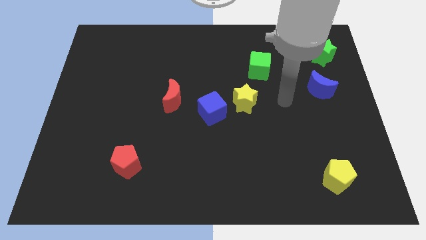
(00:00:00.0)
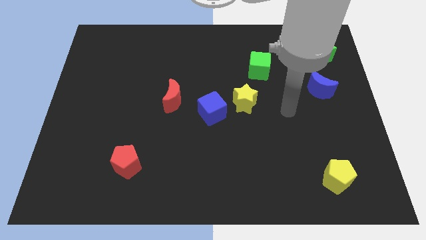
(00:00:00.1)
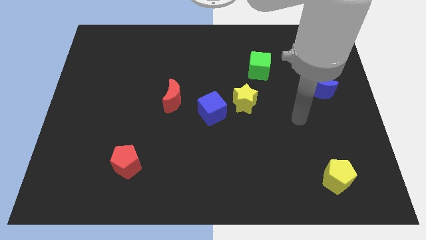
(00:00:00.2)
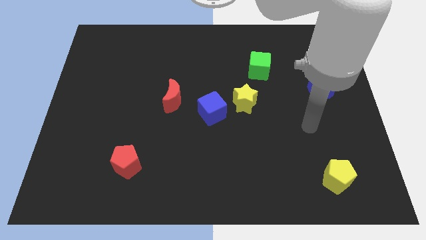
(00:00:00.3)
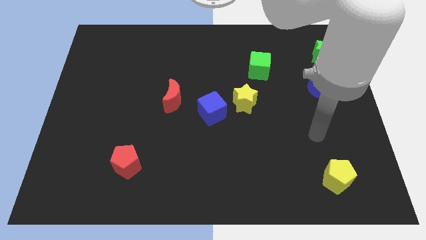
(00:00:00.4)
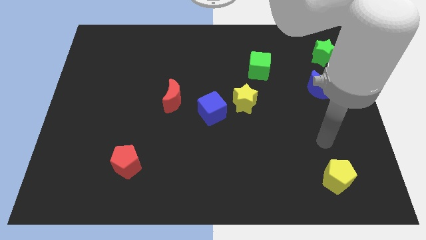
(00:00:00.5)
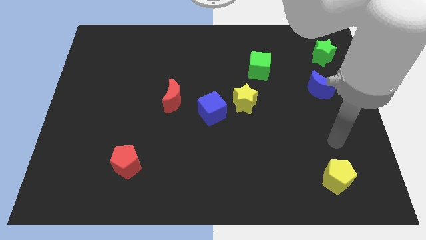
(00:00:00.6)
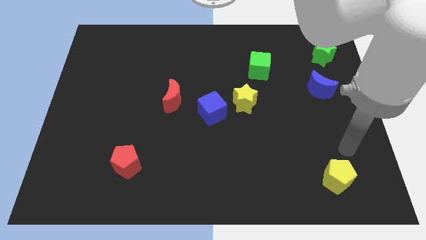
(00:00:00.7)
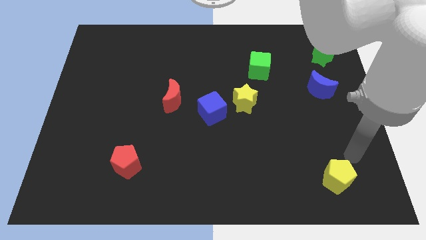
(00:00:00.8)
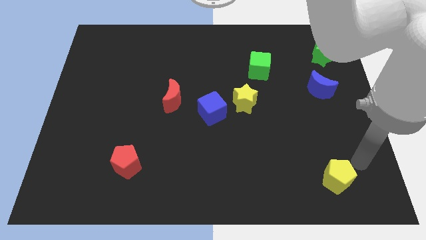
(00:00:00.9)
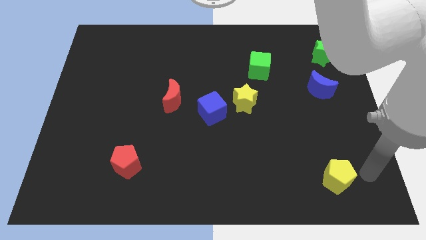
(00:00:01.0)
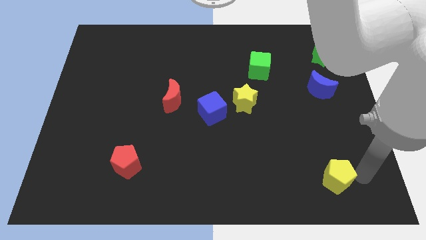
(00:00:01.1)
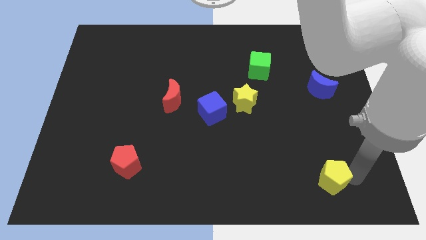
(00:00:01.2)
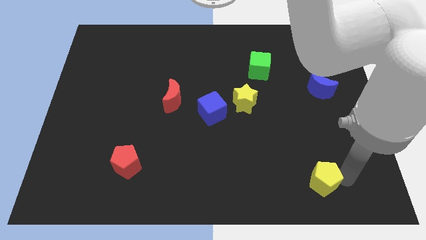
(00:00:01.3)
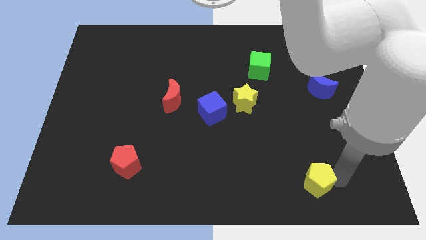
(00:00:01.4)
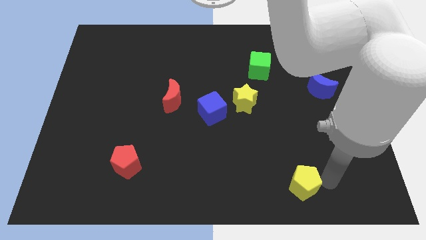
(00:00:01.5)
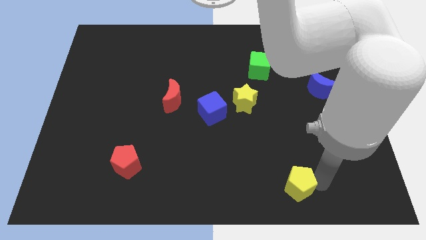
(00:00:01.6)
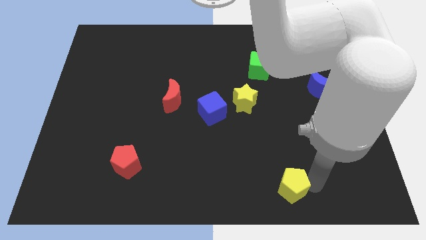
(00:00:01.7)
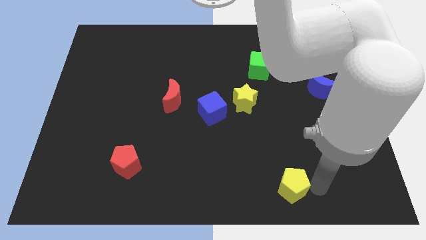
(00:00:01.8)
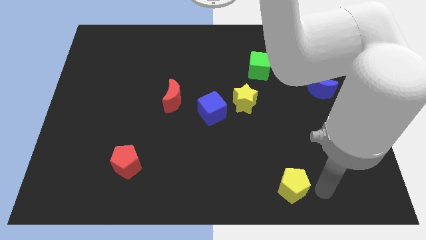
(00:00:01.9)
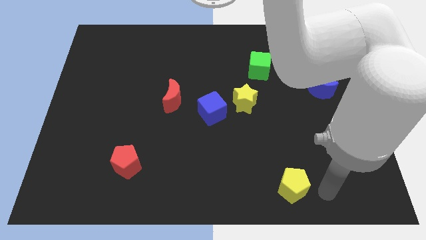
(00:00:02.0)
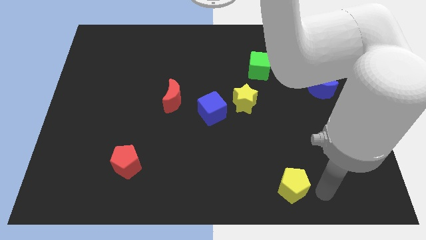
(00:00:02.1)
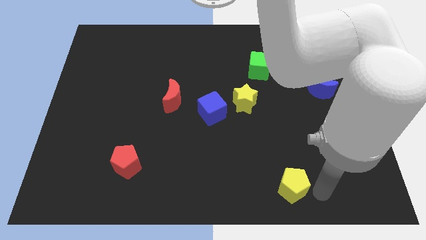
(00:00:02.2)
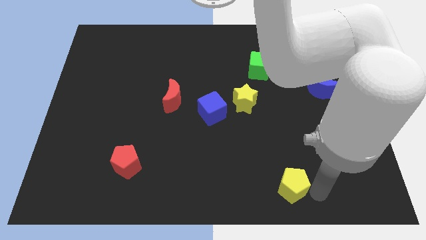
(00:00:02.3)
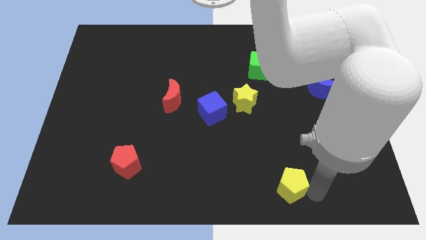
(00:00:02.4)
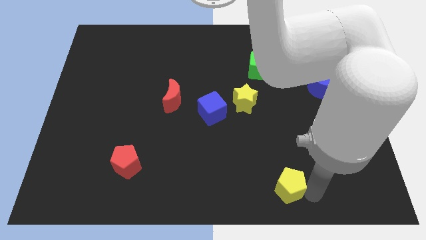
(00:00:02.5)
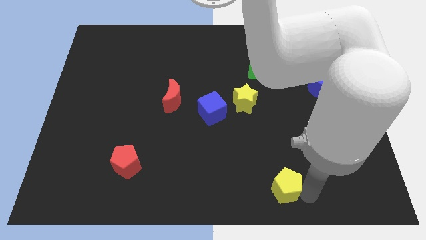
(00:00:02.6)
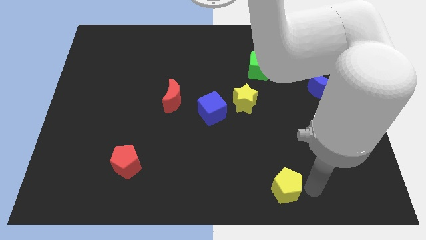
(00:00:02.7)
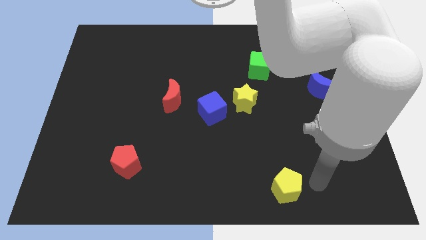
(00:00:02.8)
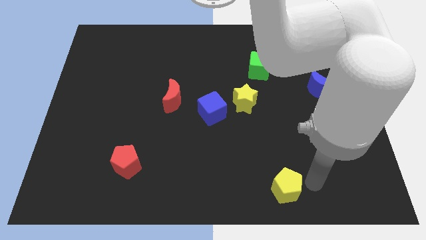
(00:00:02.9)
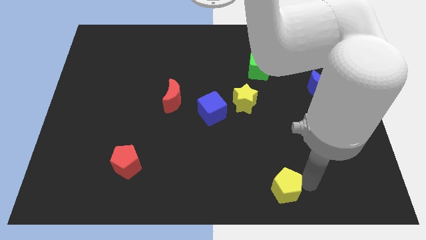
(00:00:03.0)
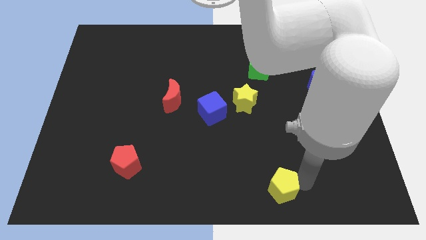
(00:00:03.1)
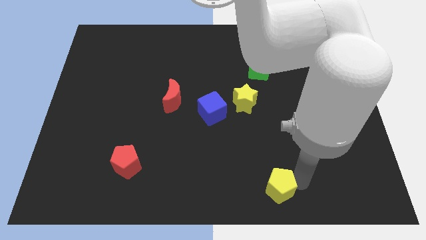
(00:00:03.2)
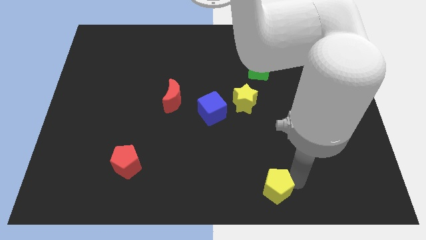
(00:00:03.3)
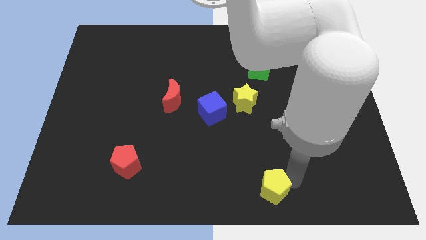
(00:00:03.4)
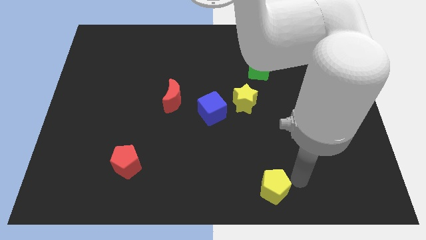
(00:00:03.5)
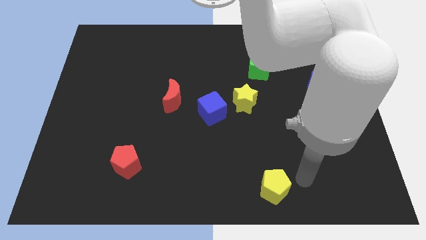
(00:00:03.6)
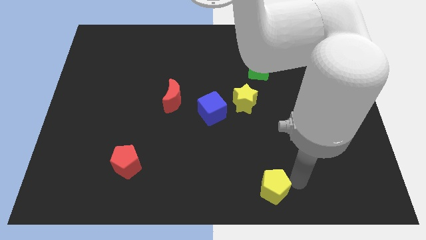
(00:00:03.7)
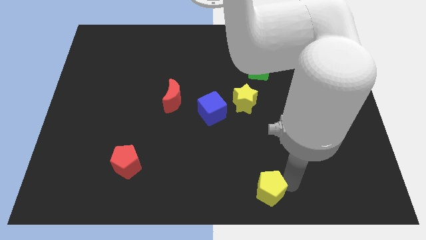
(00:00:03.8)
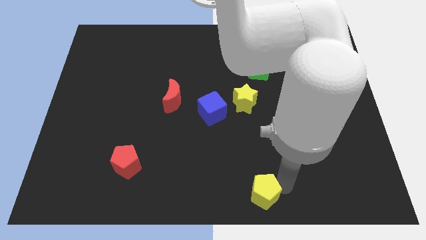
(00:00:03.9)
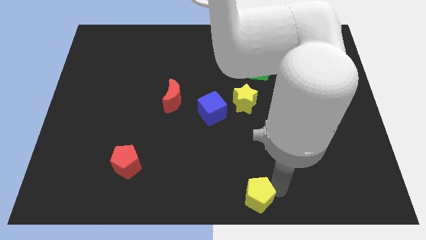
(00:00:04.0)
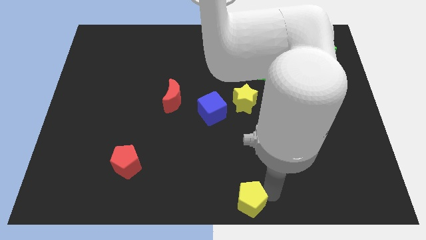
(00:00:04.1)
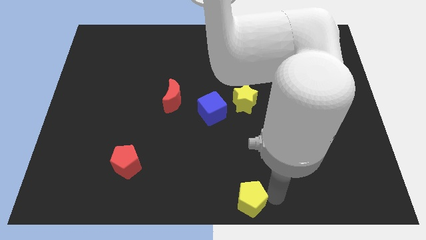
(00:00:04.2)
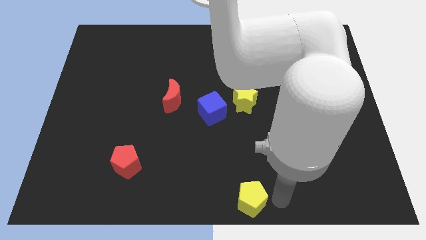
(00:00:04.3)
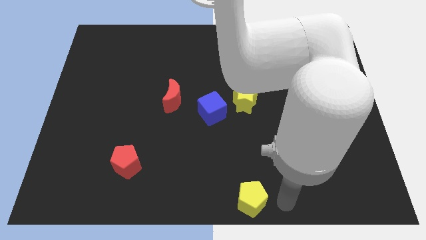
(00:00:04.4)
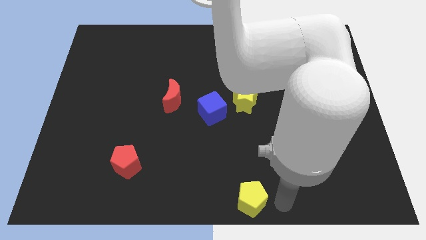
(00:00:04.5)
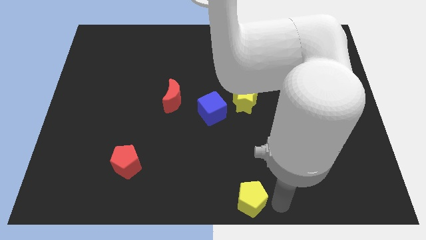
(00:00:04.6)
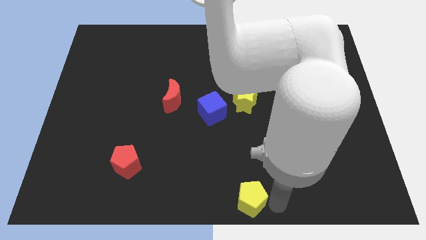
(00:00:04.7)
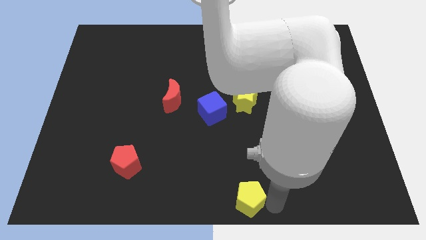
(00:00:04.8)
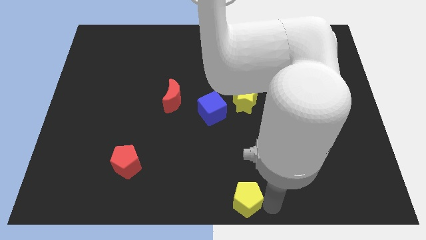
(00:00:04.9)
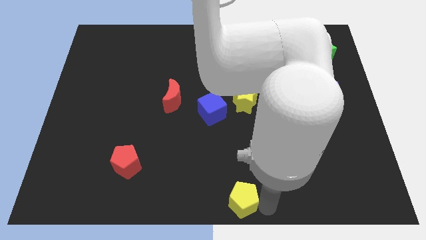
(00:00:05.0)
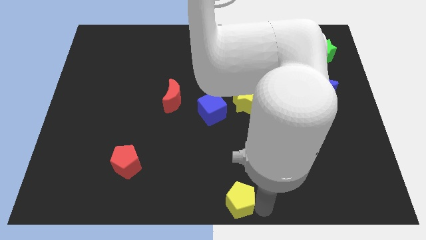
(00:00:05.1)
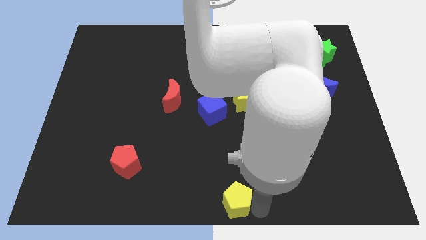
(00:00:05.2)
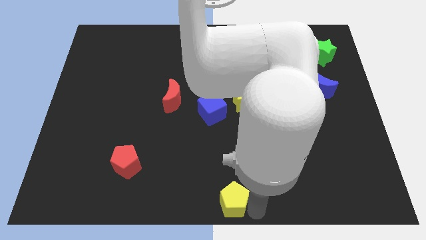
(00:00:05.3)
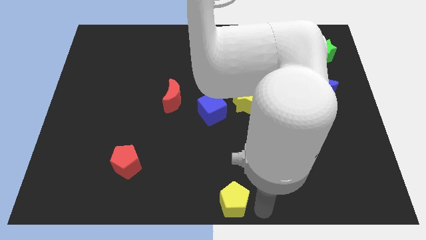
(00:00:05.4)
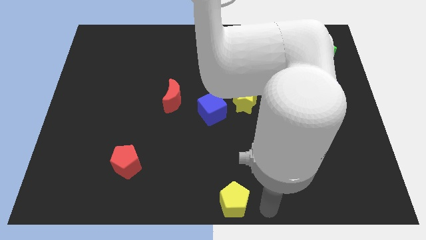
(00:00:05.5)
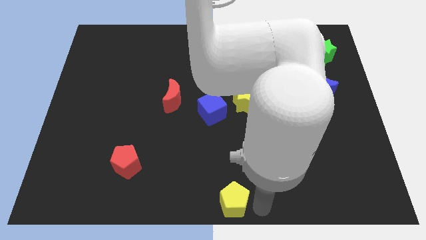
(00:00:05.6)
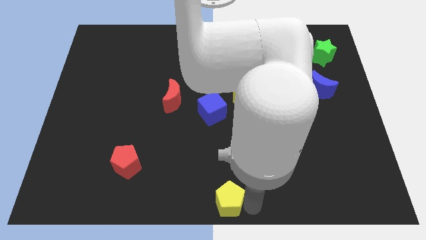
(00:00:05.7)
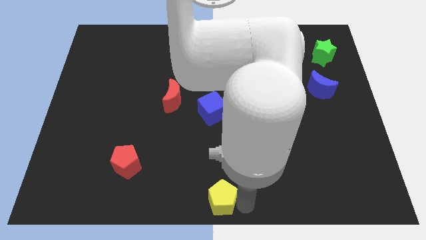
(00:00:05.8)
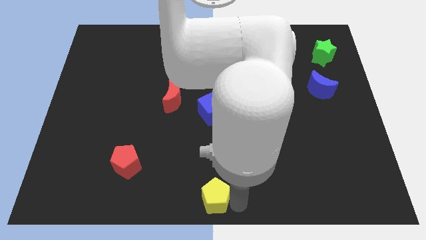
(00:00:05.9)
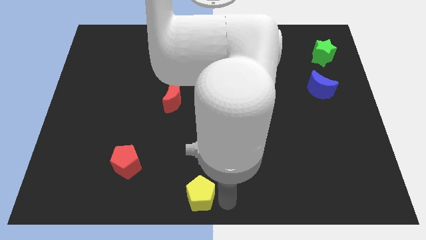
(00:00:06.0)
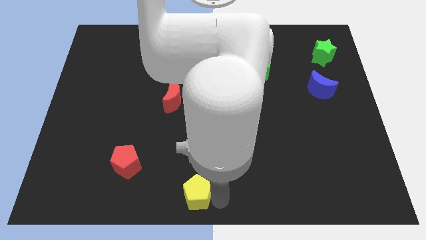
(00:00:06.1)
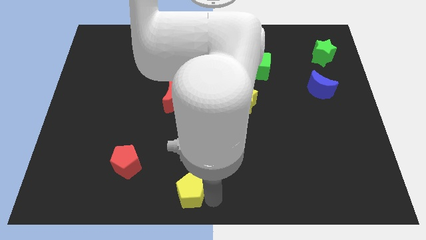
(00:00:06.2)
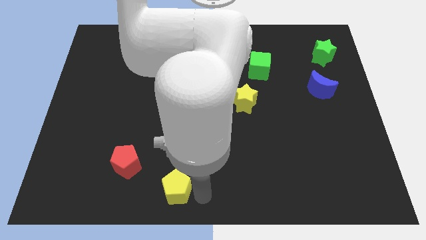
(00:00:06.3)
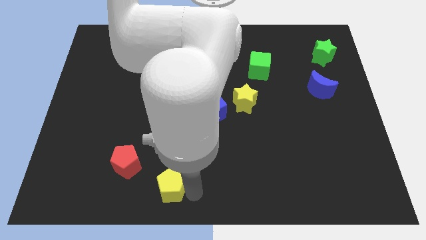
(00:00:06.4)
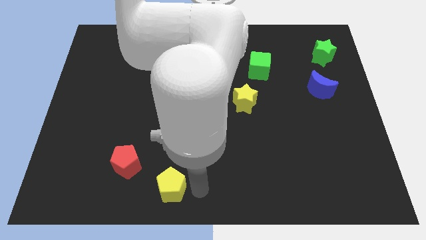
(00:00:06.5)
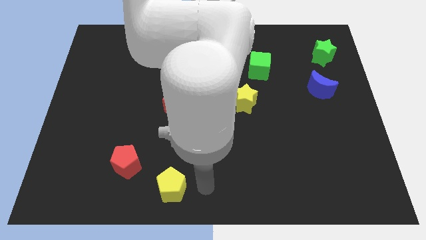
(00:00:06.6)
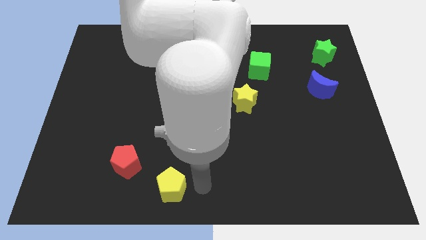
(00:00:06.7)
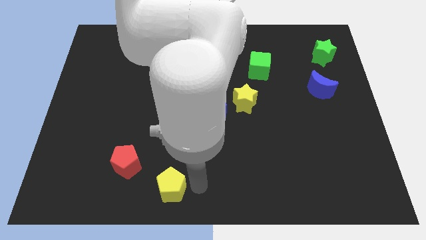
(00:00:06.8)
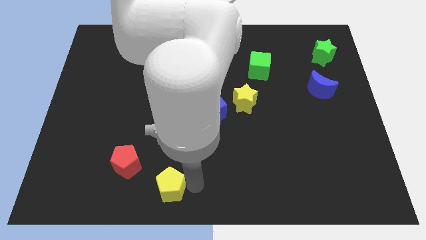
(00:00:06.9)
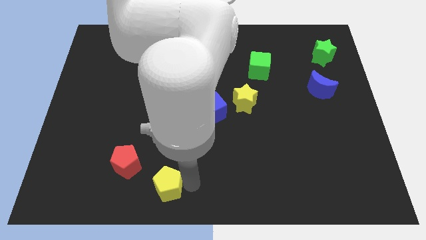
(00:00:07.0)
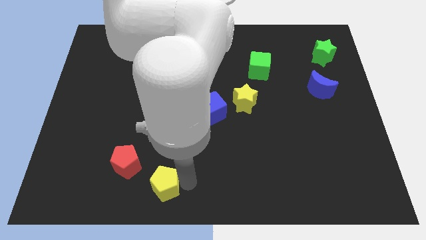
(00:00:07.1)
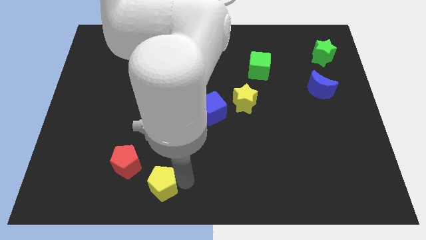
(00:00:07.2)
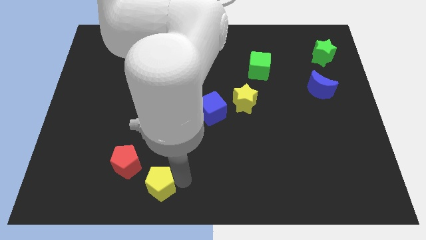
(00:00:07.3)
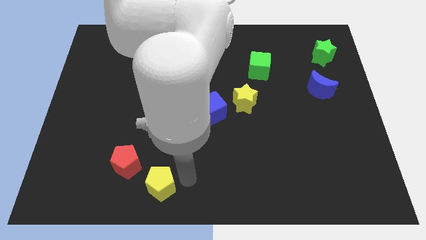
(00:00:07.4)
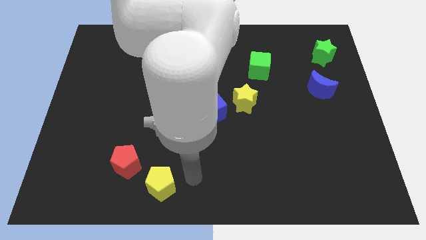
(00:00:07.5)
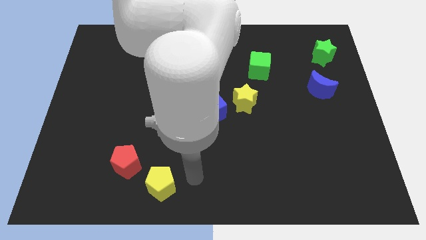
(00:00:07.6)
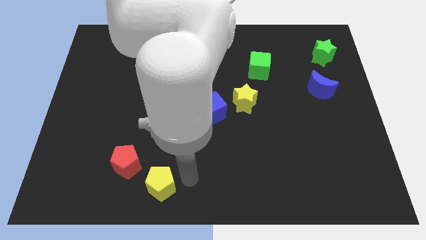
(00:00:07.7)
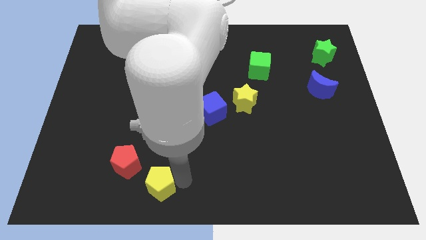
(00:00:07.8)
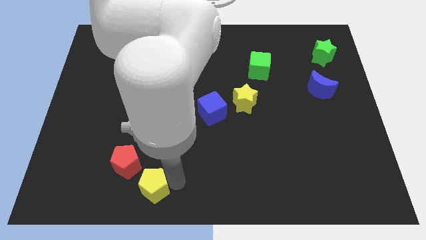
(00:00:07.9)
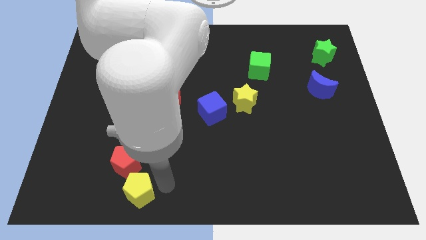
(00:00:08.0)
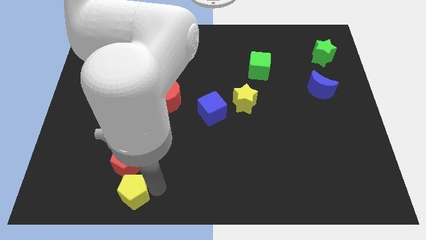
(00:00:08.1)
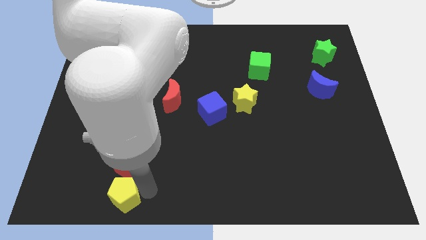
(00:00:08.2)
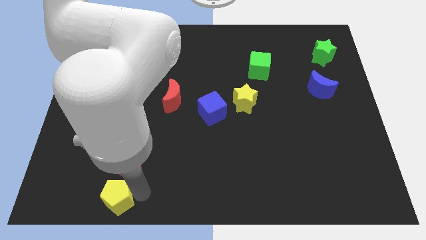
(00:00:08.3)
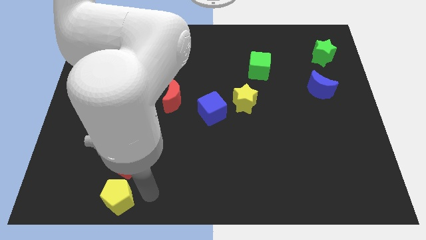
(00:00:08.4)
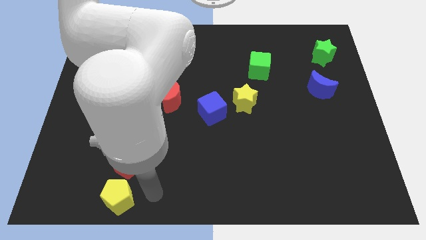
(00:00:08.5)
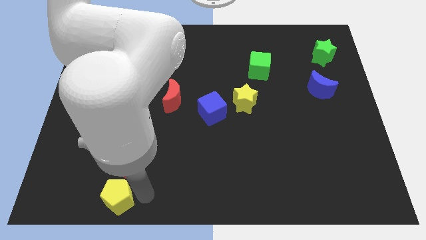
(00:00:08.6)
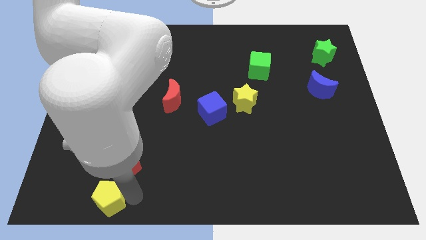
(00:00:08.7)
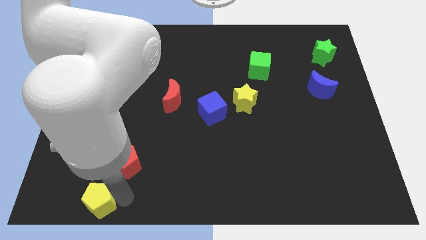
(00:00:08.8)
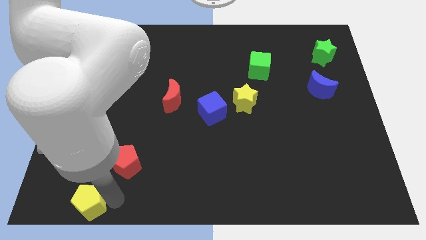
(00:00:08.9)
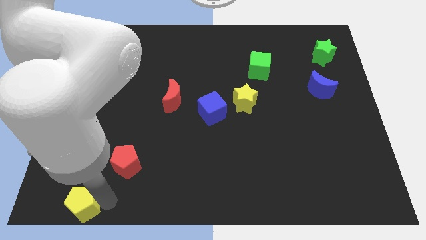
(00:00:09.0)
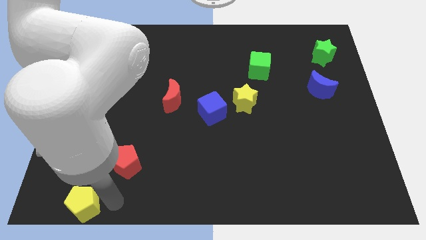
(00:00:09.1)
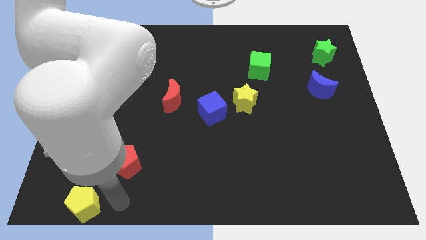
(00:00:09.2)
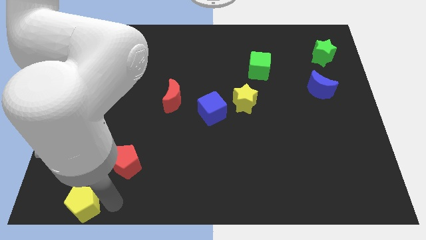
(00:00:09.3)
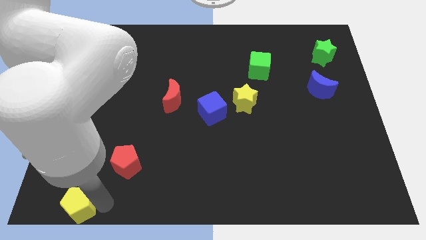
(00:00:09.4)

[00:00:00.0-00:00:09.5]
put the yellow pentagon to the bottom left corner
